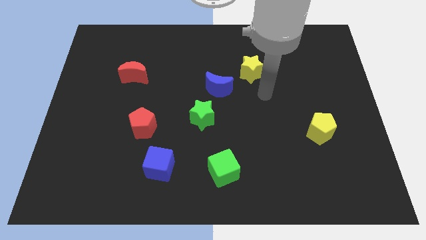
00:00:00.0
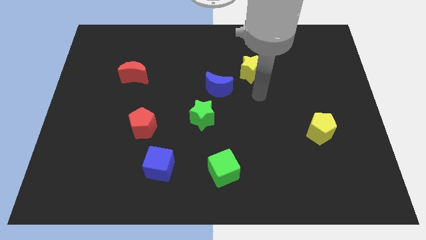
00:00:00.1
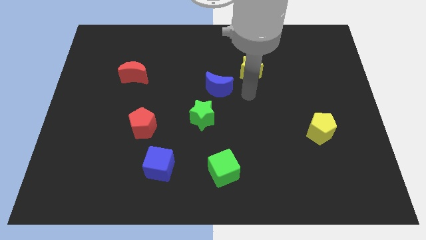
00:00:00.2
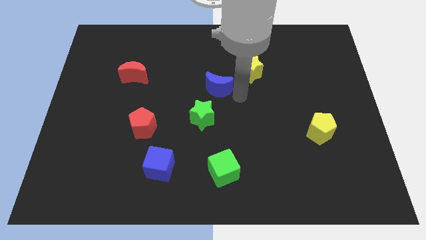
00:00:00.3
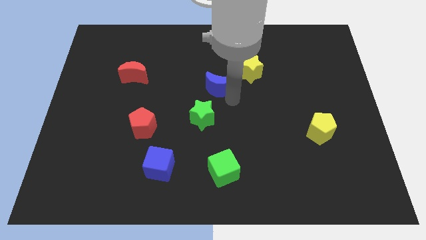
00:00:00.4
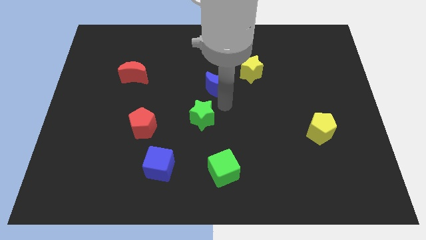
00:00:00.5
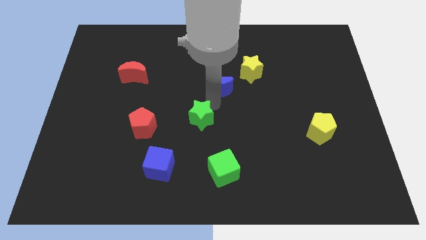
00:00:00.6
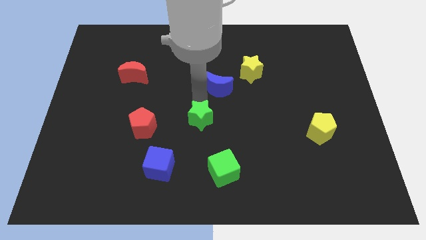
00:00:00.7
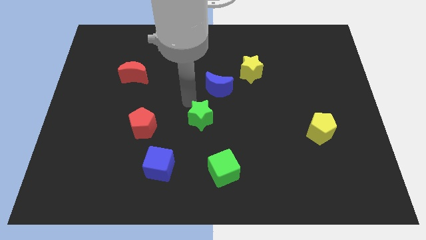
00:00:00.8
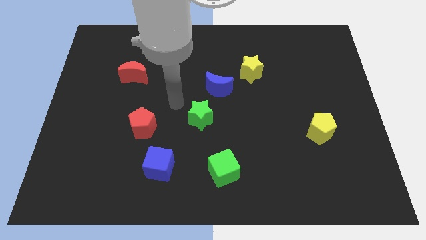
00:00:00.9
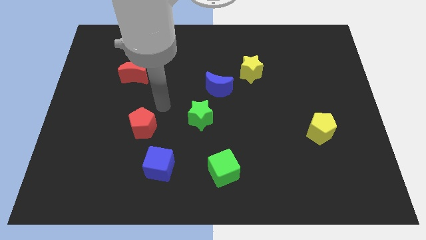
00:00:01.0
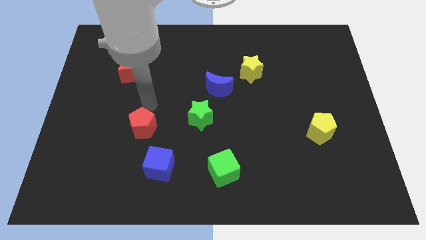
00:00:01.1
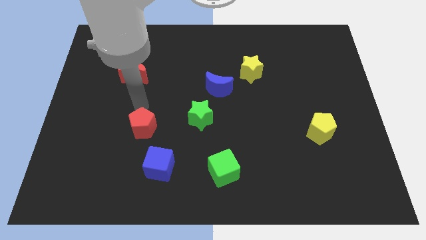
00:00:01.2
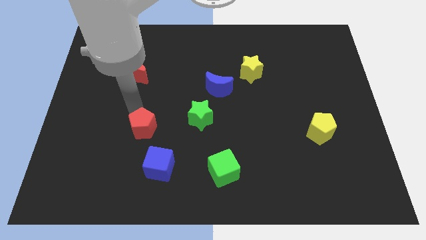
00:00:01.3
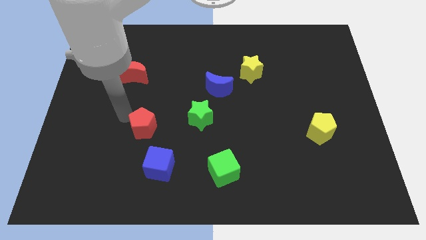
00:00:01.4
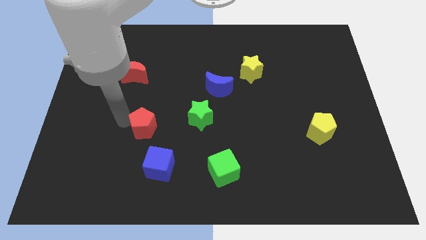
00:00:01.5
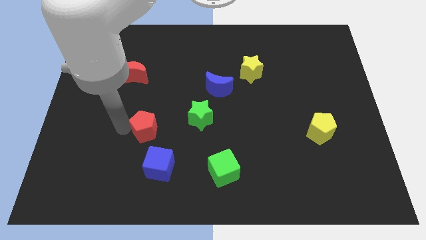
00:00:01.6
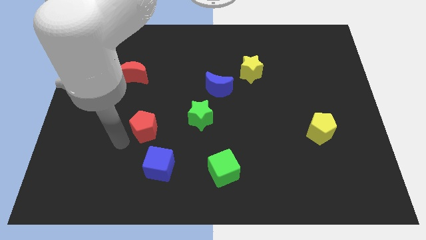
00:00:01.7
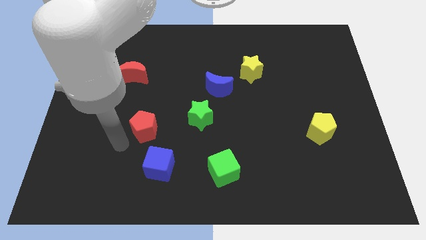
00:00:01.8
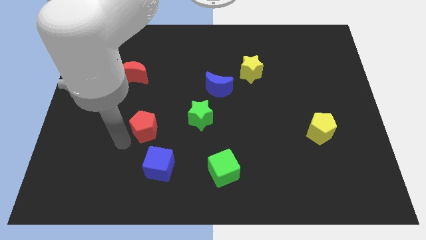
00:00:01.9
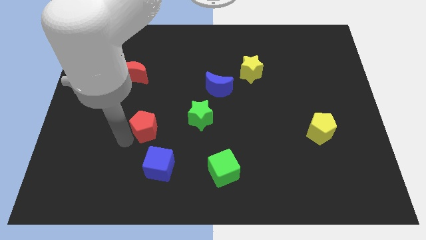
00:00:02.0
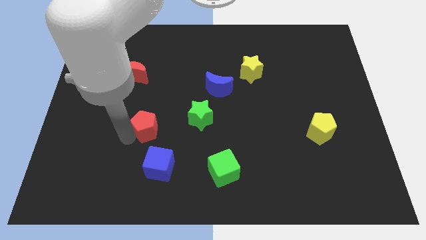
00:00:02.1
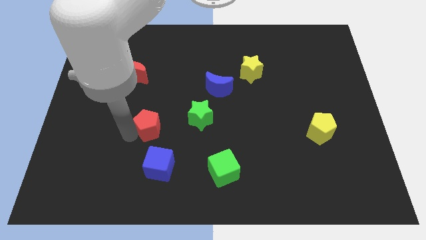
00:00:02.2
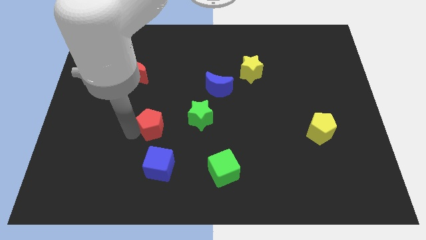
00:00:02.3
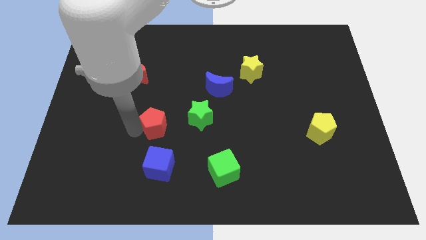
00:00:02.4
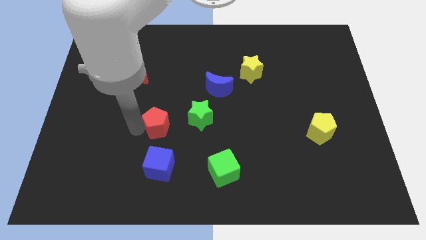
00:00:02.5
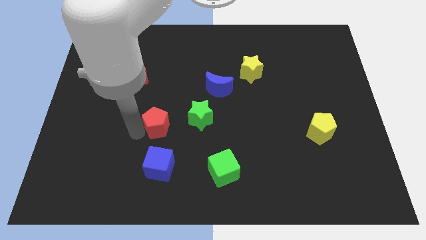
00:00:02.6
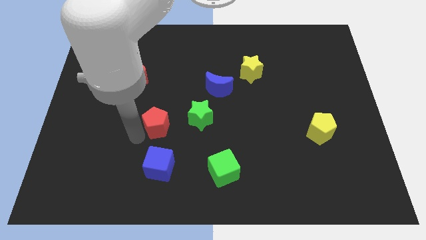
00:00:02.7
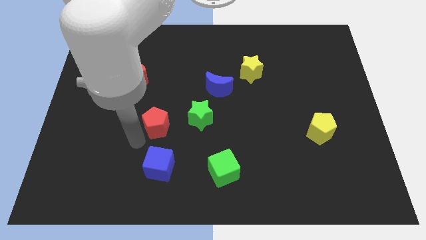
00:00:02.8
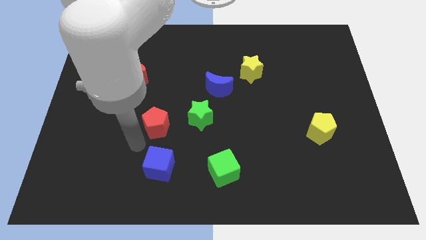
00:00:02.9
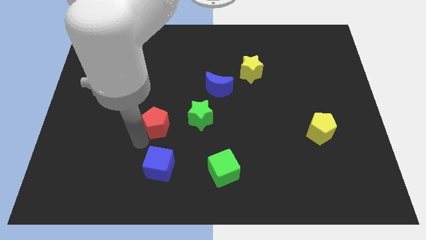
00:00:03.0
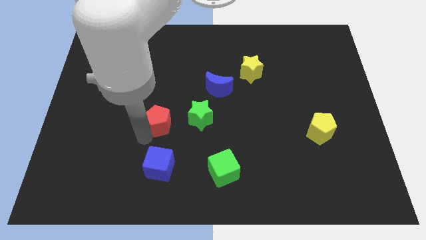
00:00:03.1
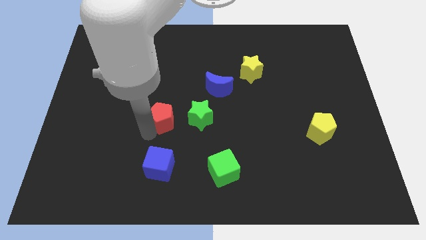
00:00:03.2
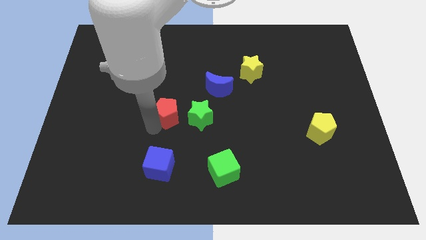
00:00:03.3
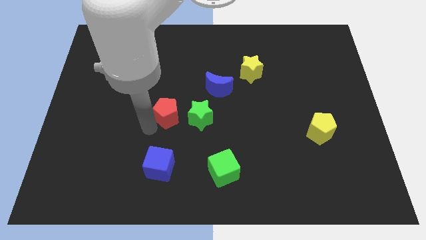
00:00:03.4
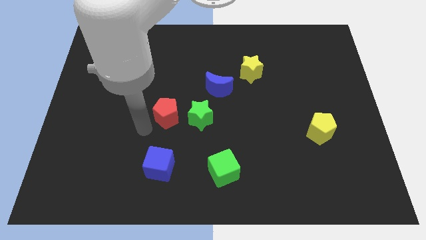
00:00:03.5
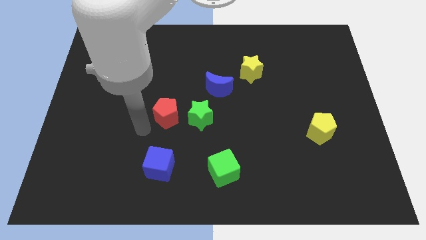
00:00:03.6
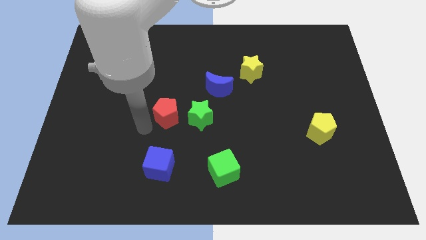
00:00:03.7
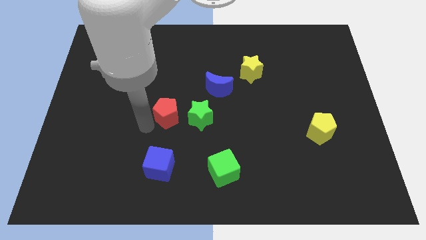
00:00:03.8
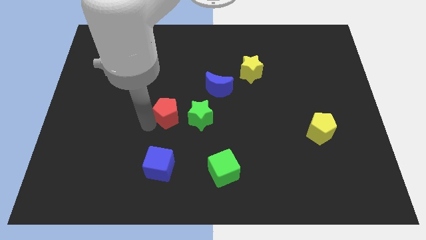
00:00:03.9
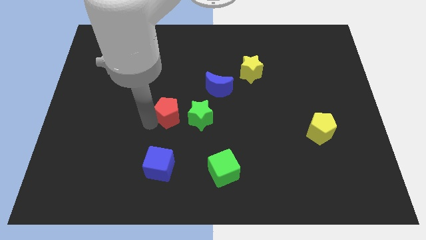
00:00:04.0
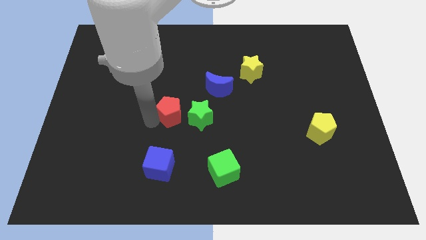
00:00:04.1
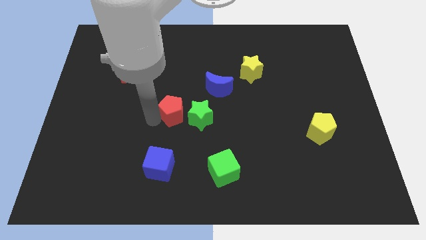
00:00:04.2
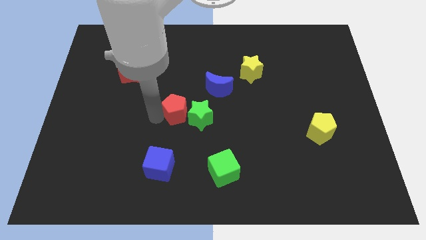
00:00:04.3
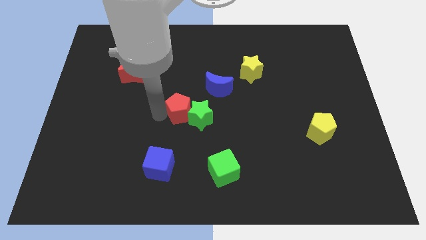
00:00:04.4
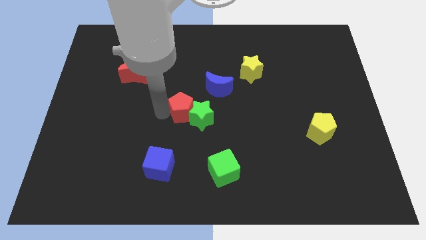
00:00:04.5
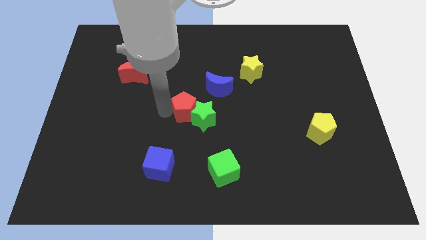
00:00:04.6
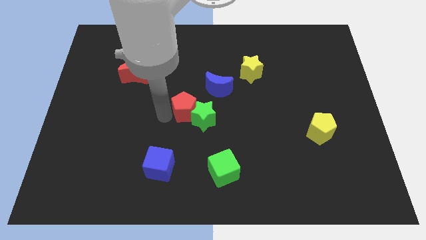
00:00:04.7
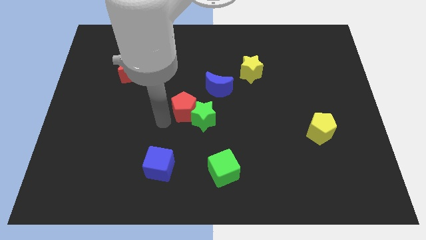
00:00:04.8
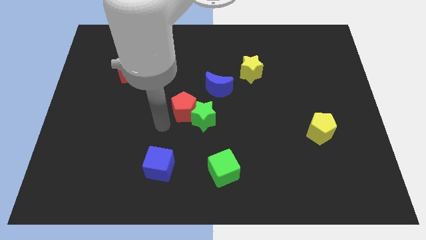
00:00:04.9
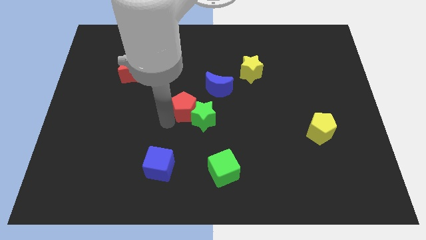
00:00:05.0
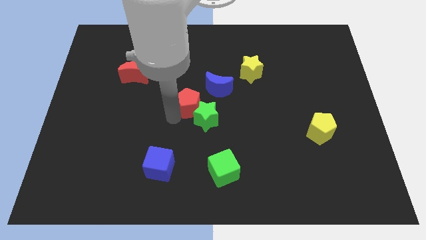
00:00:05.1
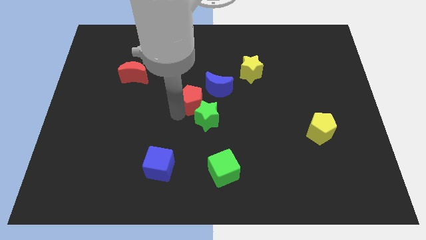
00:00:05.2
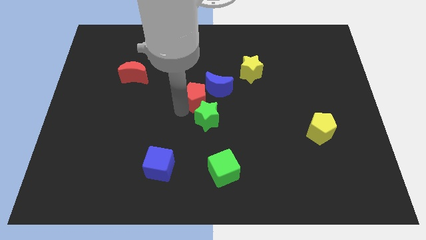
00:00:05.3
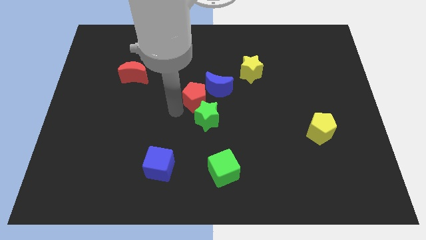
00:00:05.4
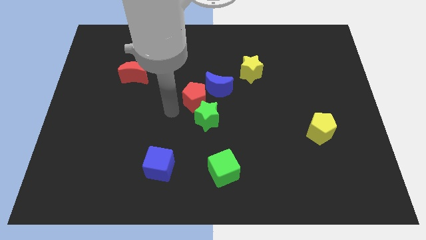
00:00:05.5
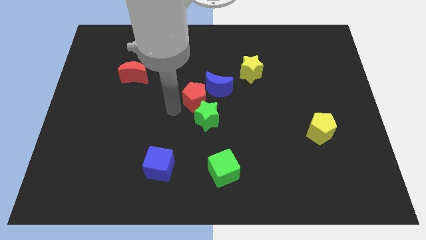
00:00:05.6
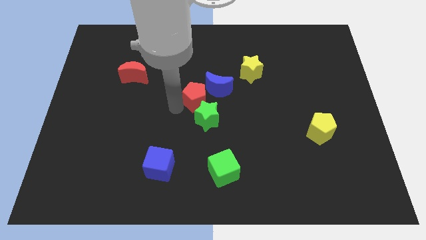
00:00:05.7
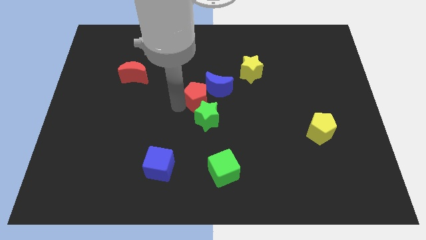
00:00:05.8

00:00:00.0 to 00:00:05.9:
put the red pentagon next to the blue moon

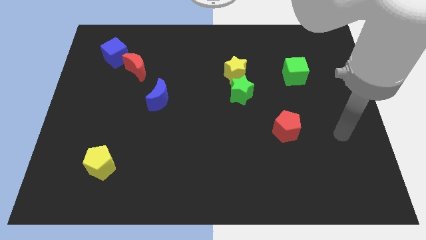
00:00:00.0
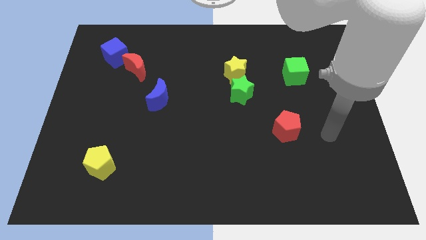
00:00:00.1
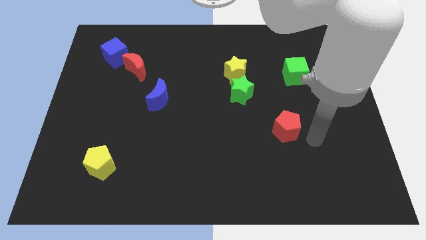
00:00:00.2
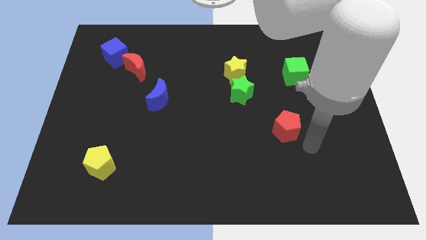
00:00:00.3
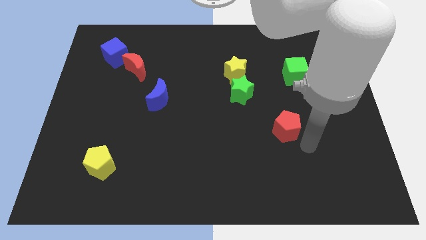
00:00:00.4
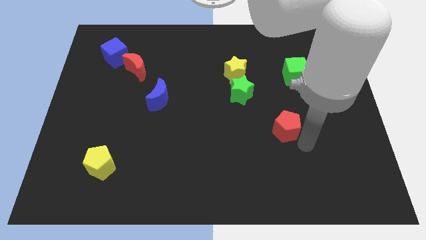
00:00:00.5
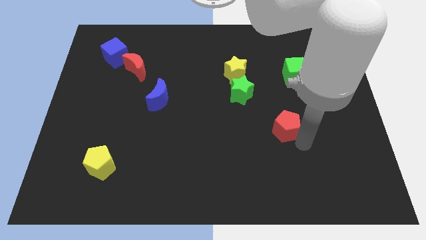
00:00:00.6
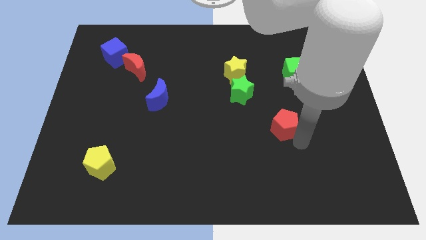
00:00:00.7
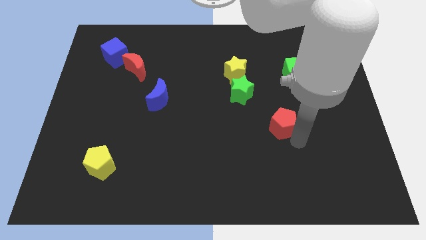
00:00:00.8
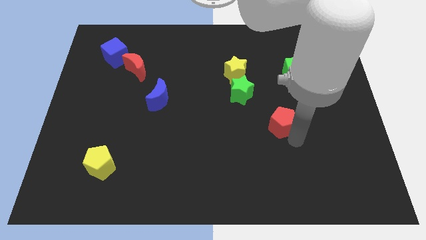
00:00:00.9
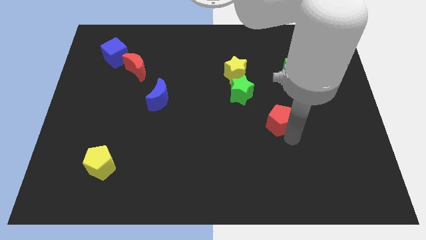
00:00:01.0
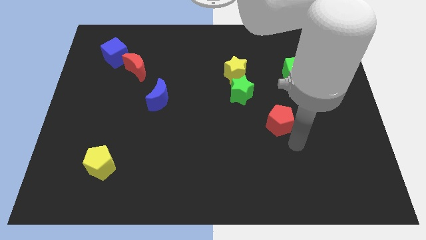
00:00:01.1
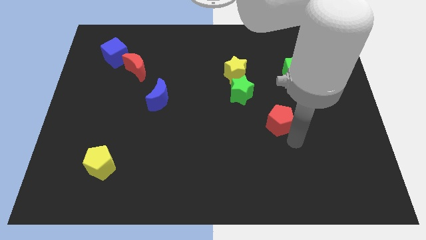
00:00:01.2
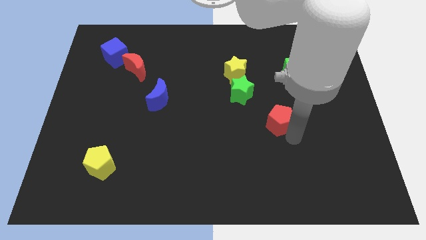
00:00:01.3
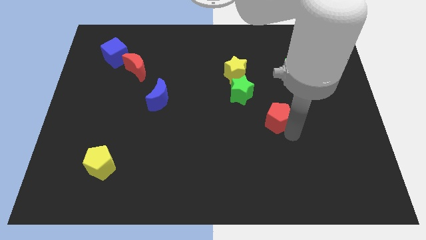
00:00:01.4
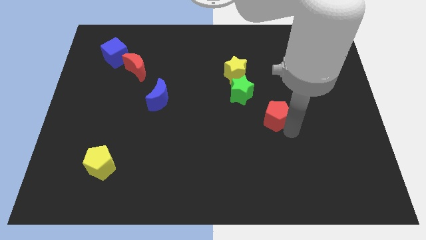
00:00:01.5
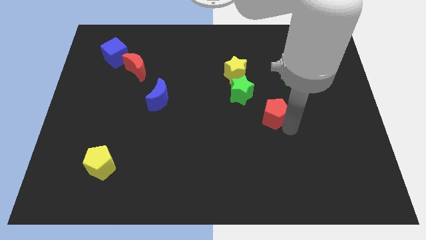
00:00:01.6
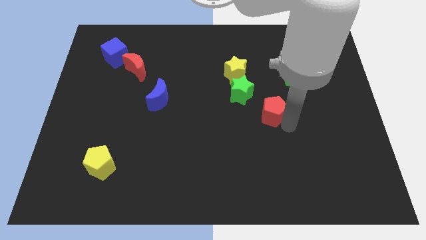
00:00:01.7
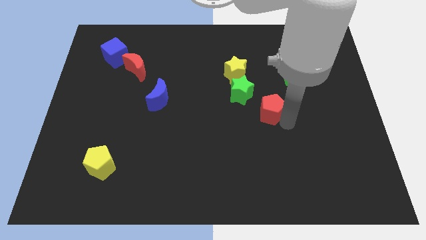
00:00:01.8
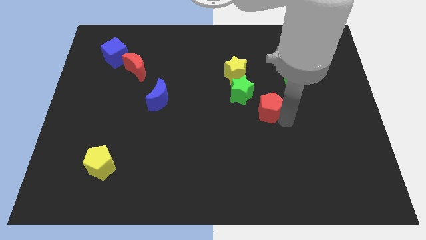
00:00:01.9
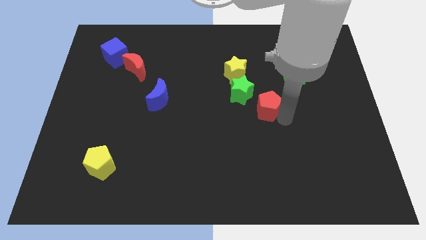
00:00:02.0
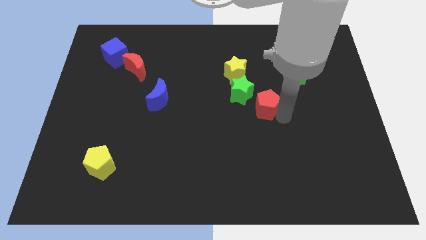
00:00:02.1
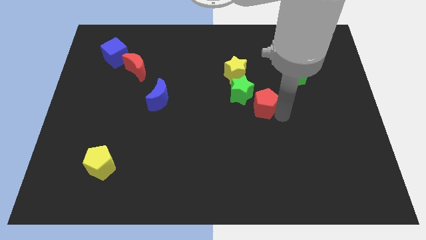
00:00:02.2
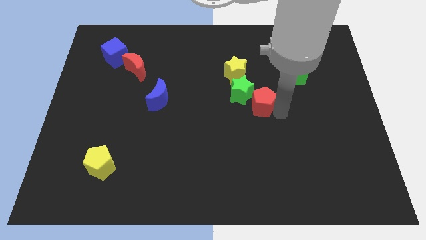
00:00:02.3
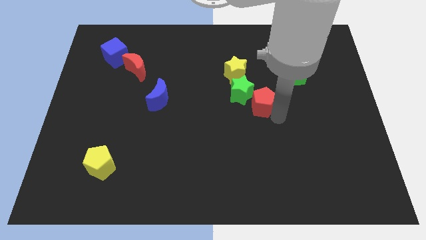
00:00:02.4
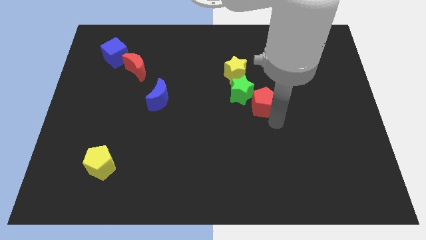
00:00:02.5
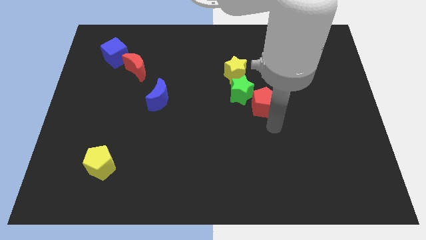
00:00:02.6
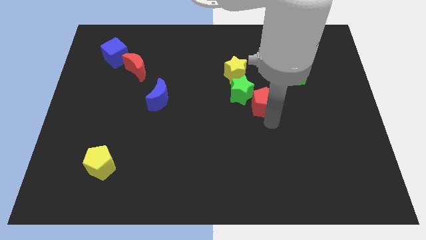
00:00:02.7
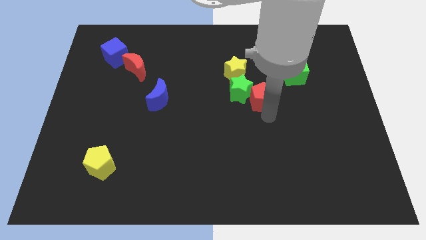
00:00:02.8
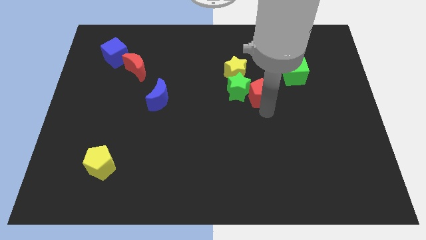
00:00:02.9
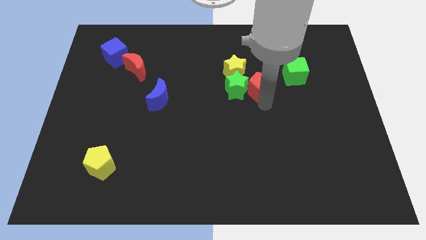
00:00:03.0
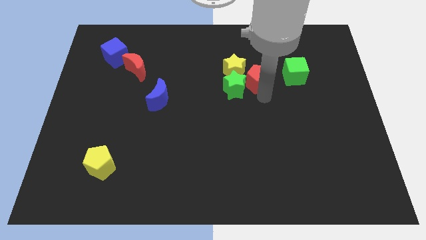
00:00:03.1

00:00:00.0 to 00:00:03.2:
put the red pentagon to the yellow star
